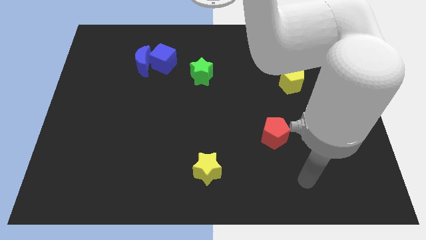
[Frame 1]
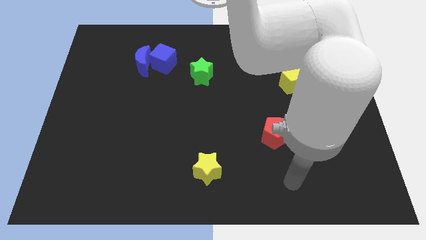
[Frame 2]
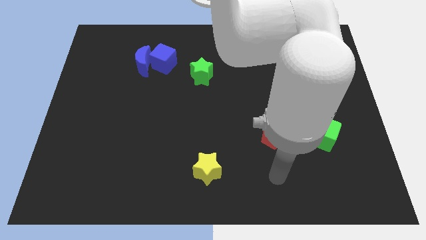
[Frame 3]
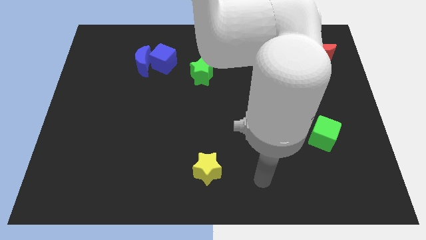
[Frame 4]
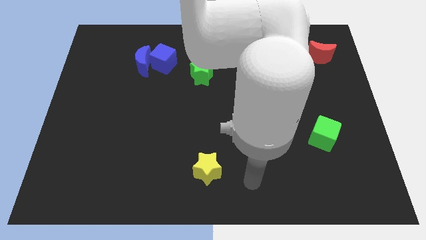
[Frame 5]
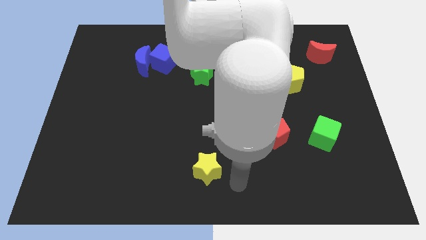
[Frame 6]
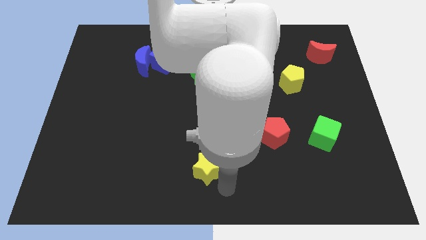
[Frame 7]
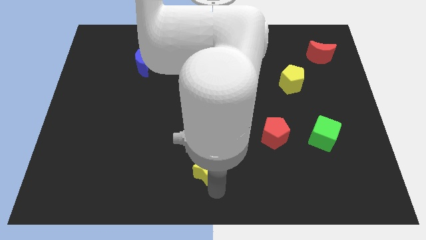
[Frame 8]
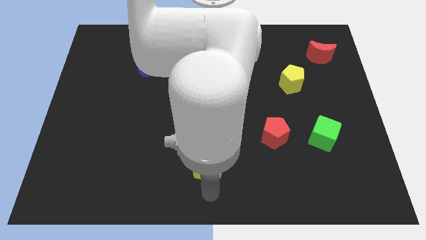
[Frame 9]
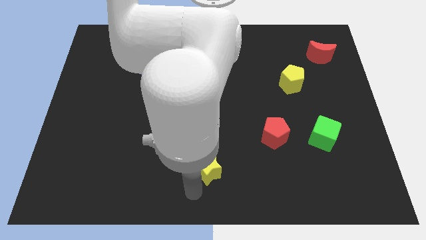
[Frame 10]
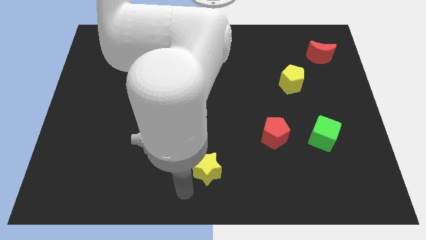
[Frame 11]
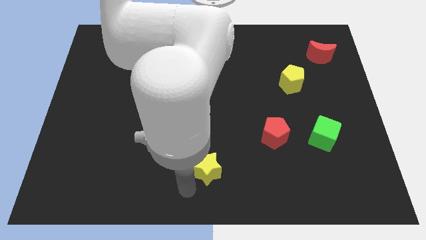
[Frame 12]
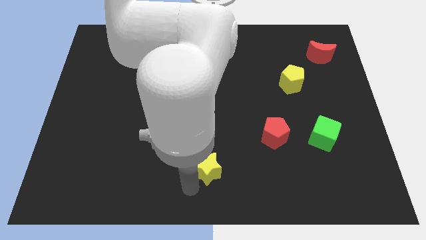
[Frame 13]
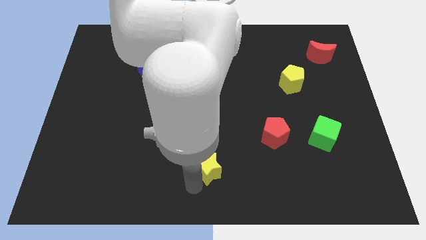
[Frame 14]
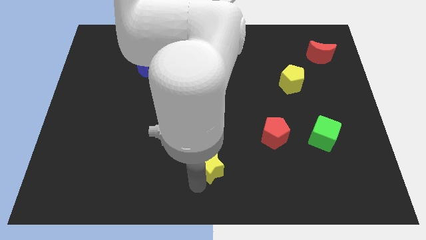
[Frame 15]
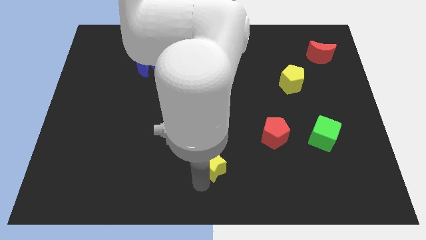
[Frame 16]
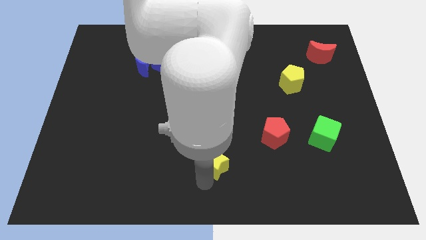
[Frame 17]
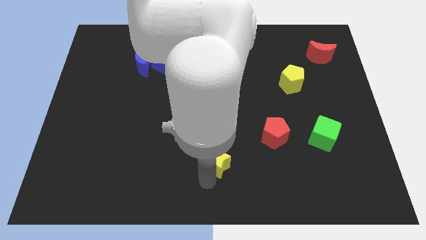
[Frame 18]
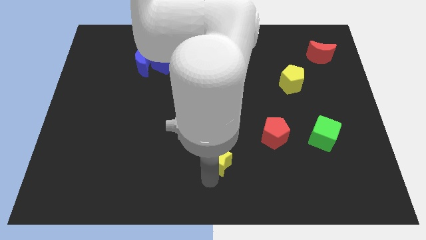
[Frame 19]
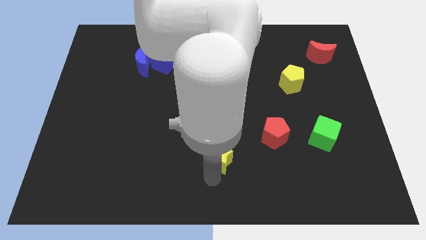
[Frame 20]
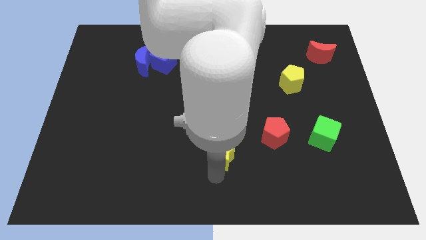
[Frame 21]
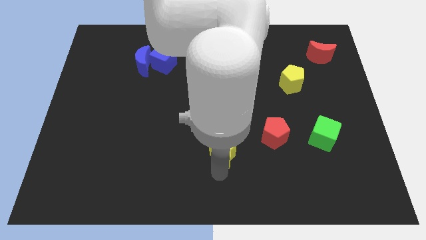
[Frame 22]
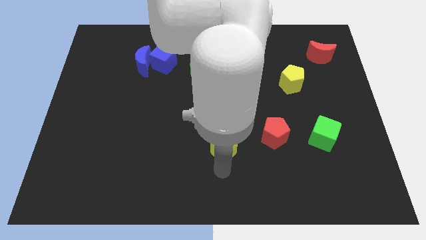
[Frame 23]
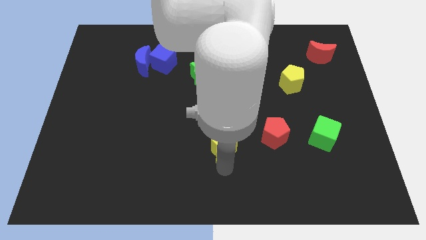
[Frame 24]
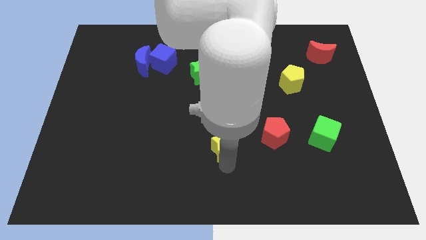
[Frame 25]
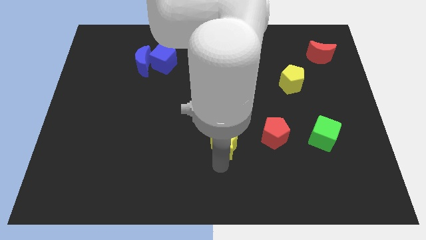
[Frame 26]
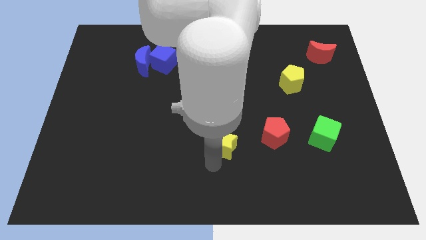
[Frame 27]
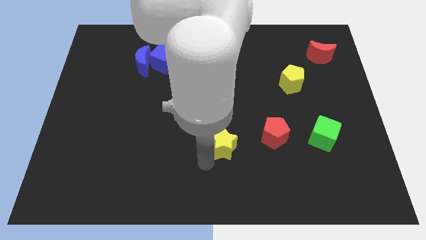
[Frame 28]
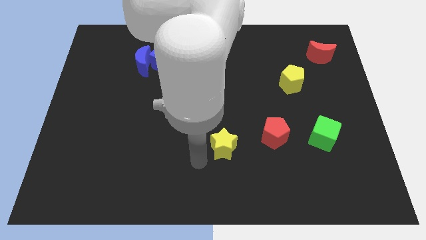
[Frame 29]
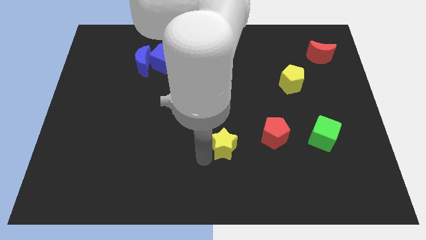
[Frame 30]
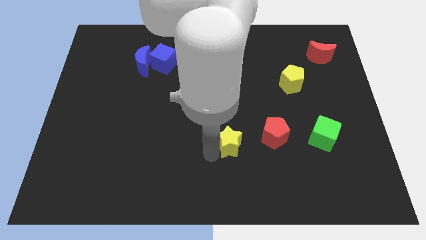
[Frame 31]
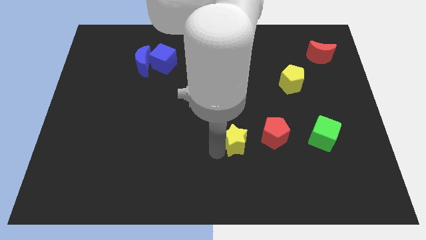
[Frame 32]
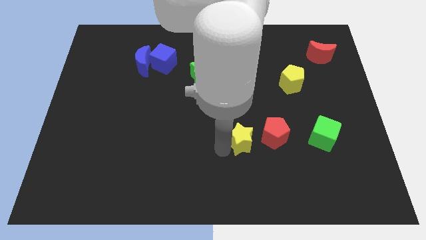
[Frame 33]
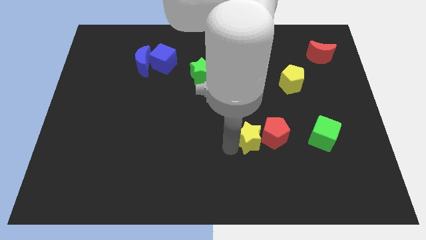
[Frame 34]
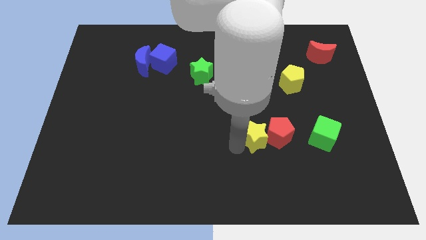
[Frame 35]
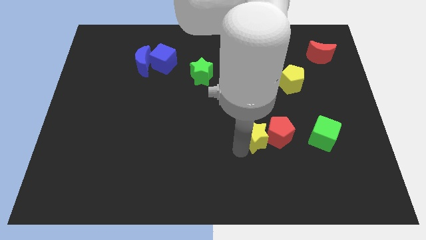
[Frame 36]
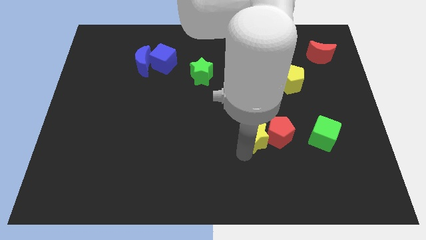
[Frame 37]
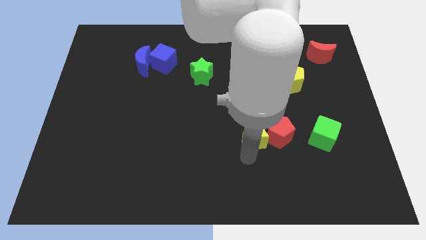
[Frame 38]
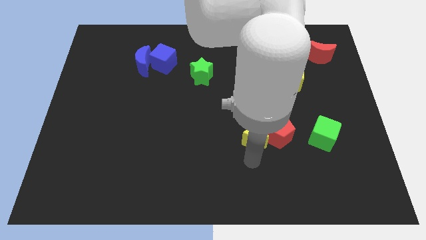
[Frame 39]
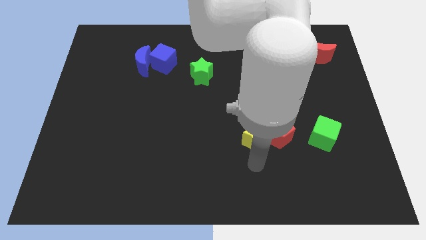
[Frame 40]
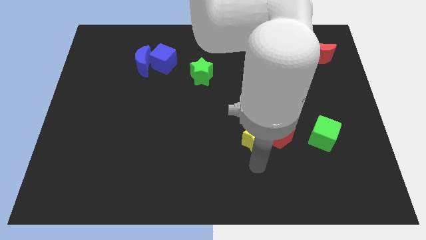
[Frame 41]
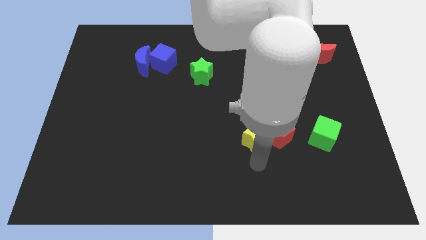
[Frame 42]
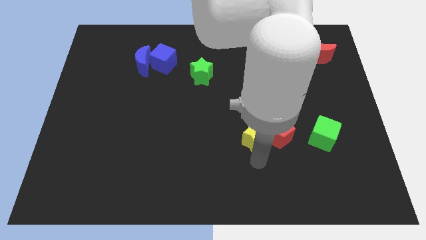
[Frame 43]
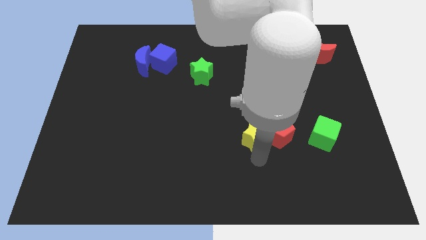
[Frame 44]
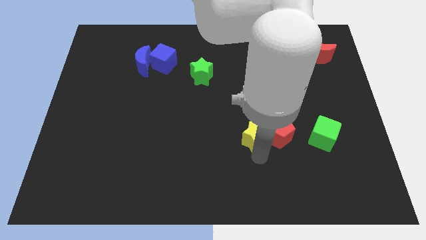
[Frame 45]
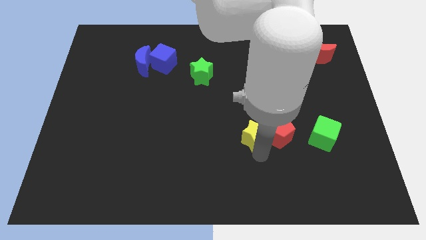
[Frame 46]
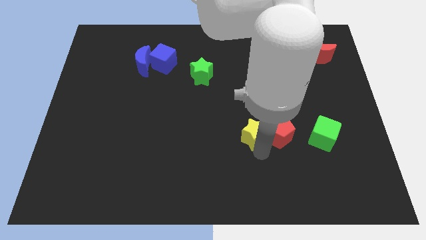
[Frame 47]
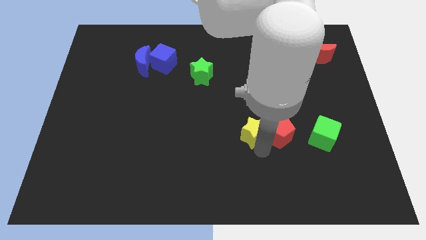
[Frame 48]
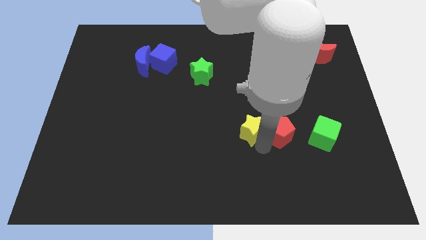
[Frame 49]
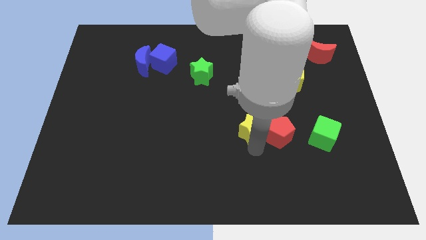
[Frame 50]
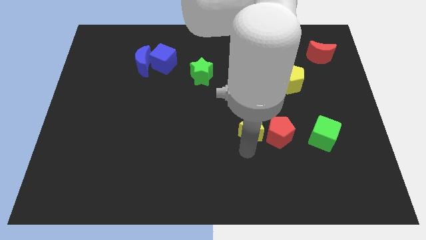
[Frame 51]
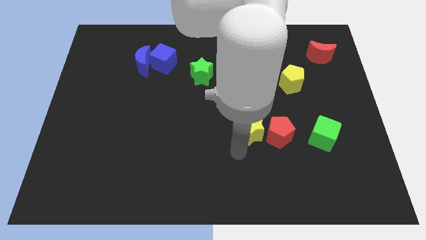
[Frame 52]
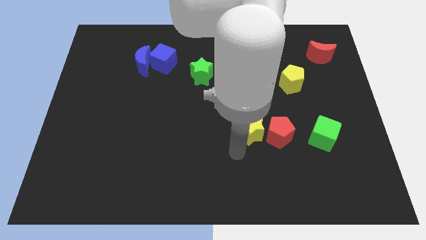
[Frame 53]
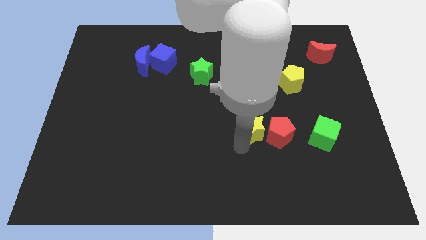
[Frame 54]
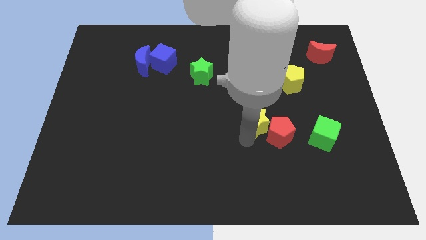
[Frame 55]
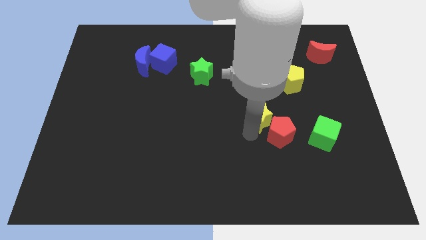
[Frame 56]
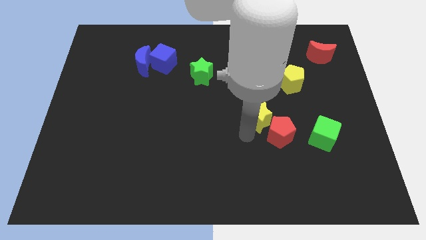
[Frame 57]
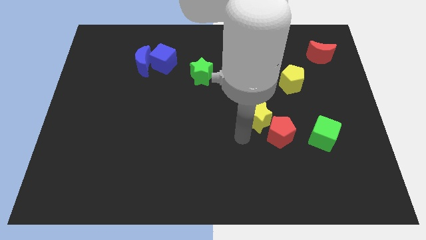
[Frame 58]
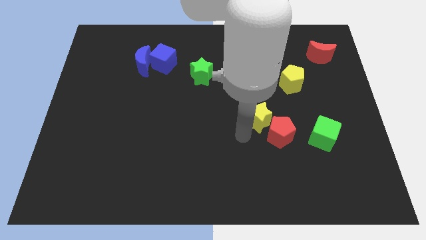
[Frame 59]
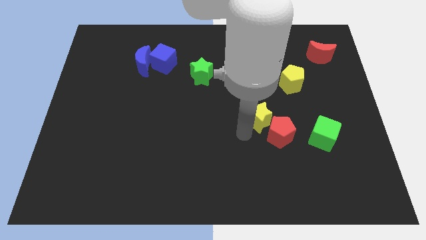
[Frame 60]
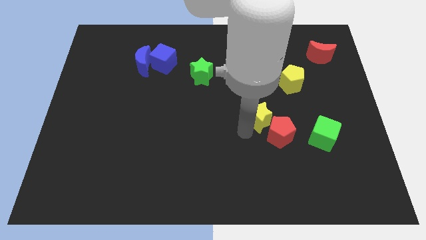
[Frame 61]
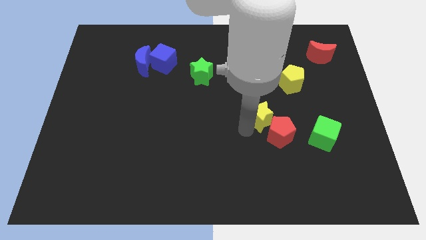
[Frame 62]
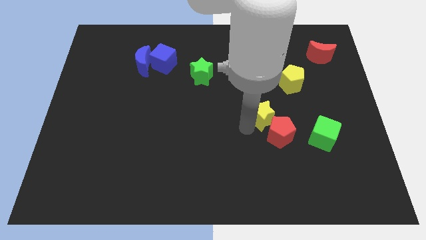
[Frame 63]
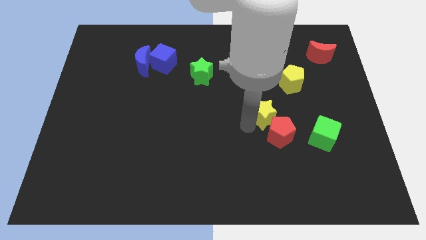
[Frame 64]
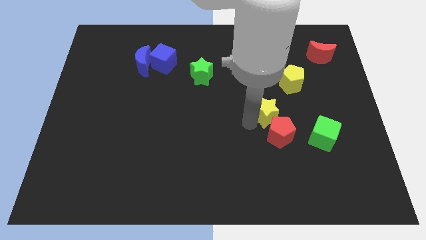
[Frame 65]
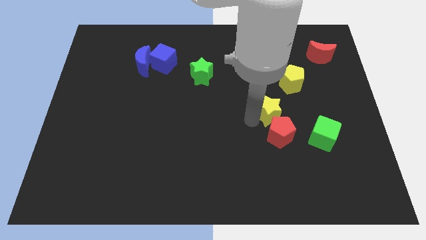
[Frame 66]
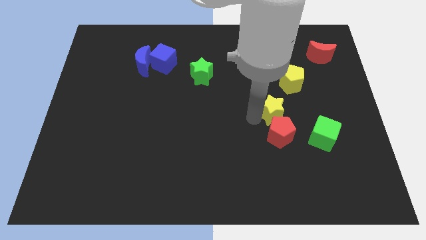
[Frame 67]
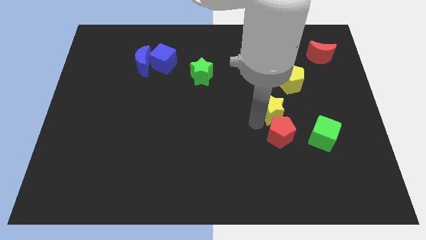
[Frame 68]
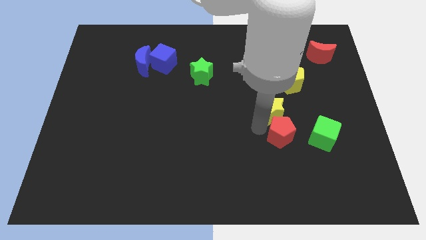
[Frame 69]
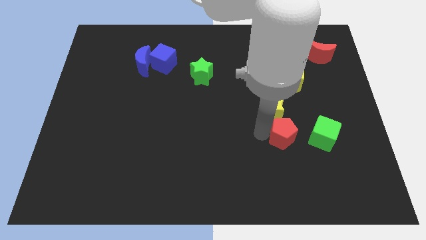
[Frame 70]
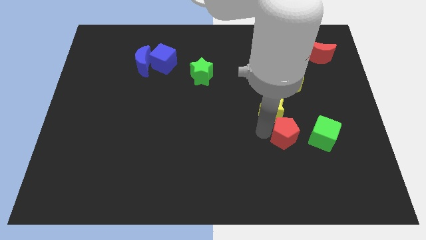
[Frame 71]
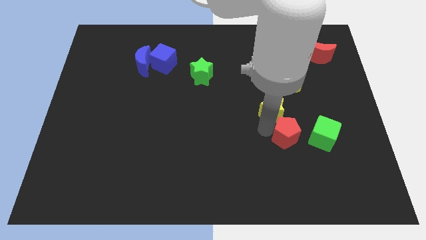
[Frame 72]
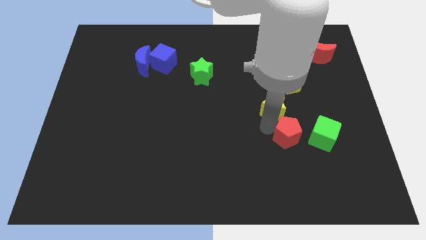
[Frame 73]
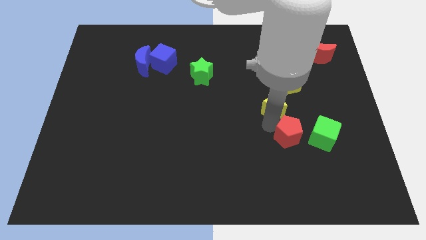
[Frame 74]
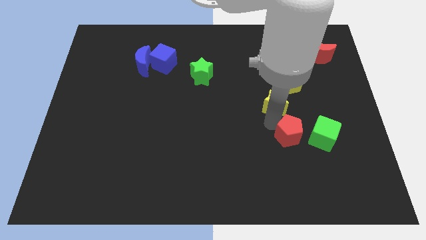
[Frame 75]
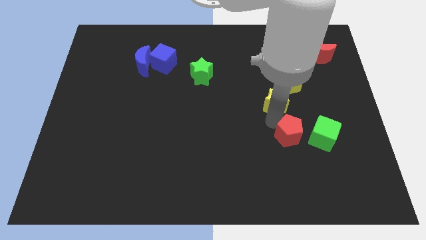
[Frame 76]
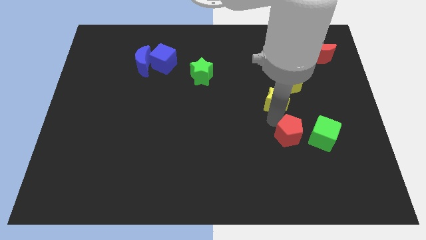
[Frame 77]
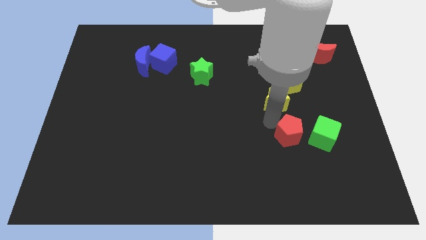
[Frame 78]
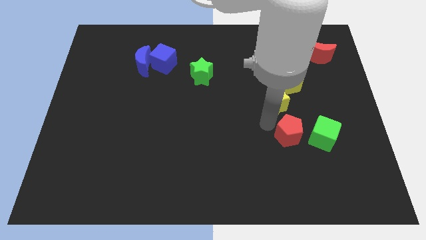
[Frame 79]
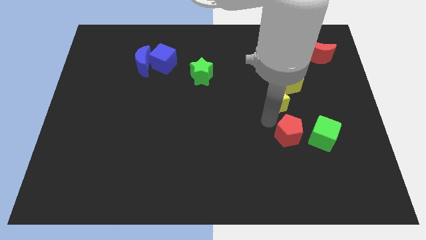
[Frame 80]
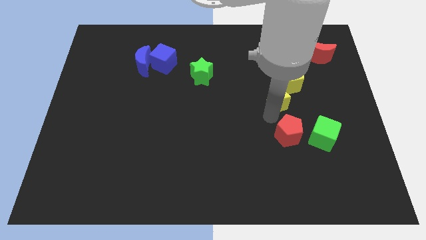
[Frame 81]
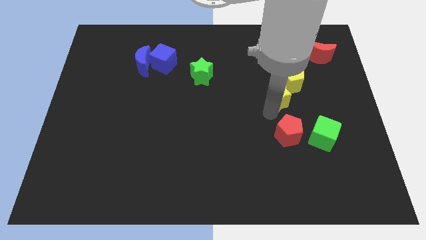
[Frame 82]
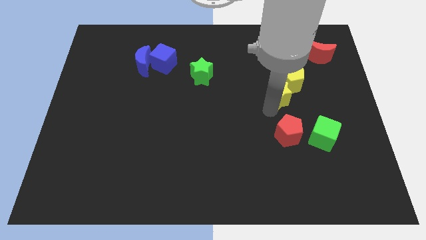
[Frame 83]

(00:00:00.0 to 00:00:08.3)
slide the yellow star towards the yellow pentagon
